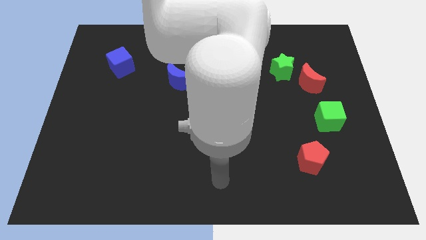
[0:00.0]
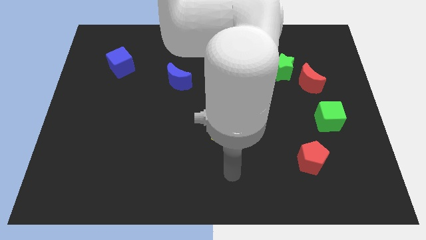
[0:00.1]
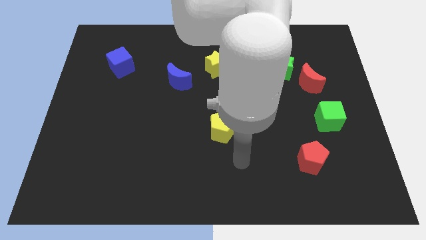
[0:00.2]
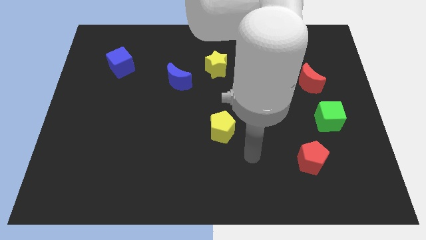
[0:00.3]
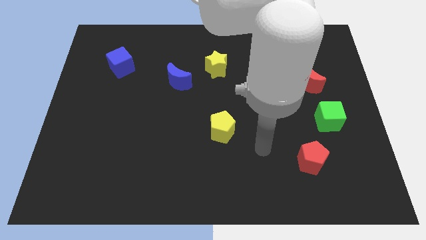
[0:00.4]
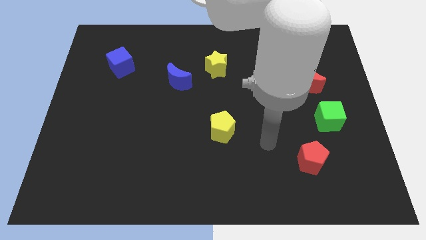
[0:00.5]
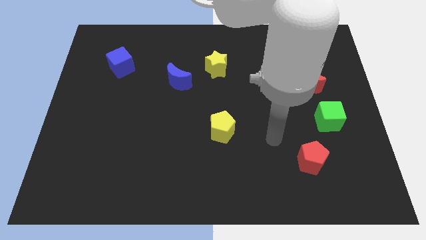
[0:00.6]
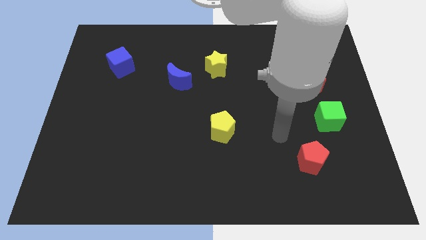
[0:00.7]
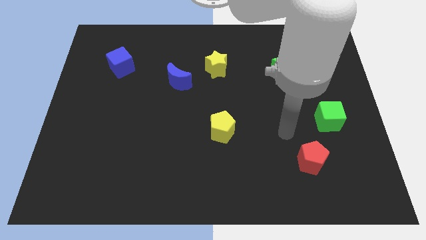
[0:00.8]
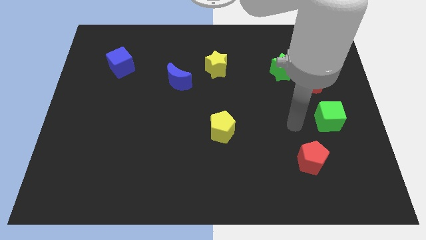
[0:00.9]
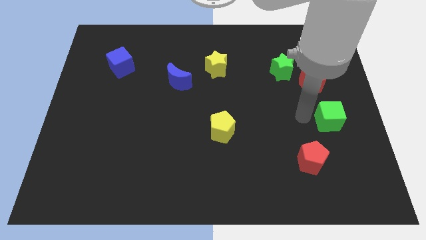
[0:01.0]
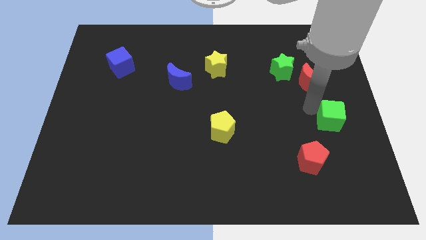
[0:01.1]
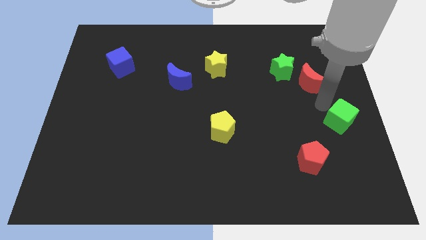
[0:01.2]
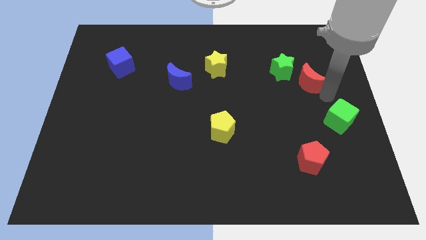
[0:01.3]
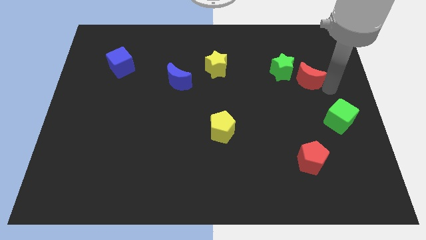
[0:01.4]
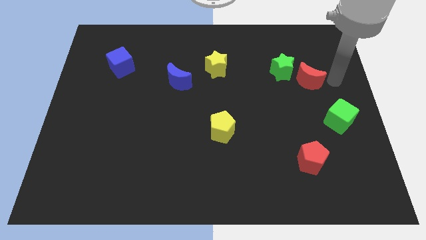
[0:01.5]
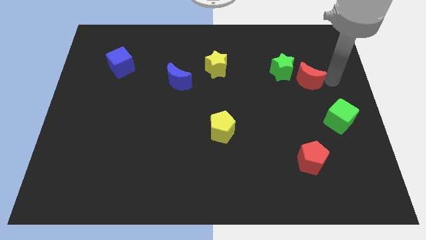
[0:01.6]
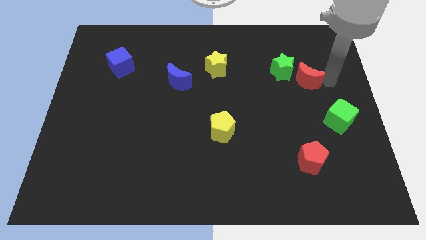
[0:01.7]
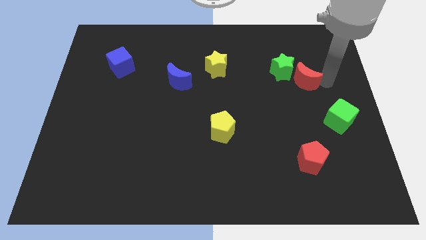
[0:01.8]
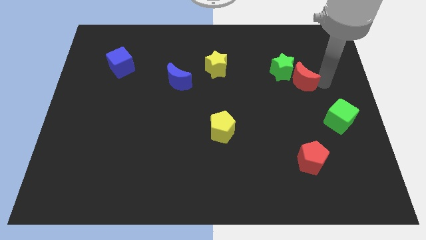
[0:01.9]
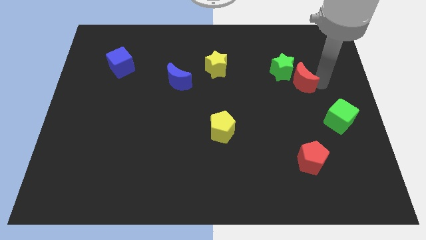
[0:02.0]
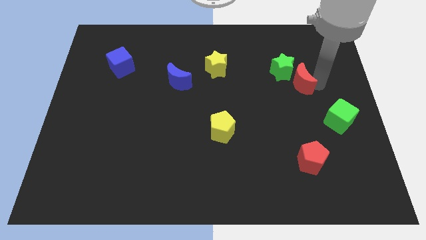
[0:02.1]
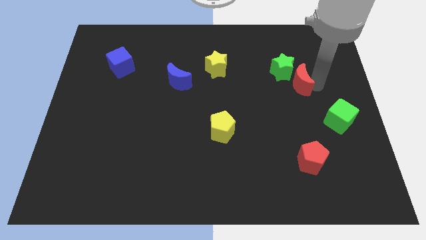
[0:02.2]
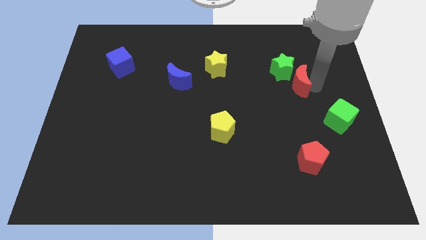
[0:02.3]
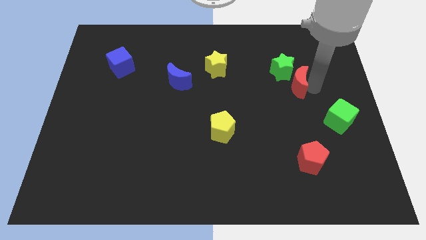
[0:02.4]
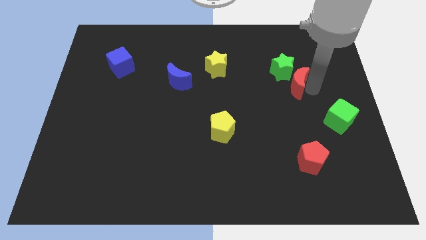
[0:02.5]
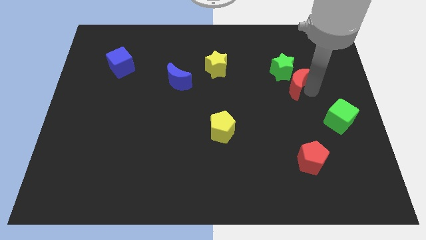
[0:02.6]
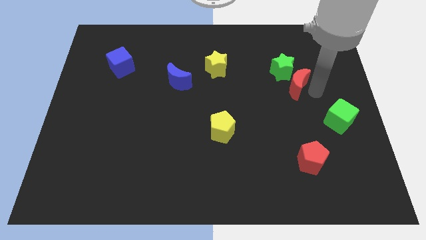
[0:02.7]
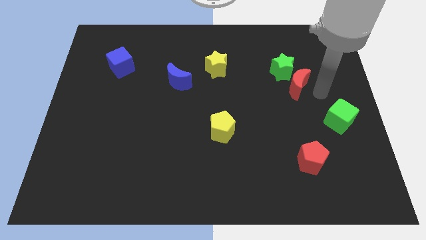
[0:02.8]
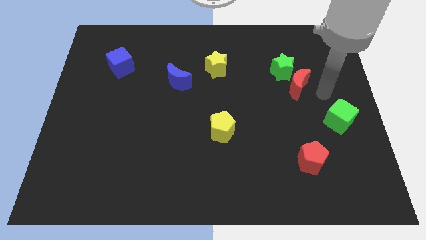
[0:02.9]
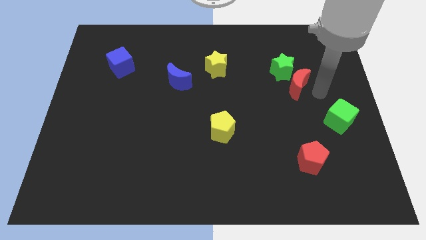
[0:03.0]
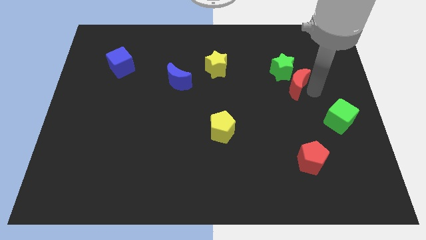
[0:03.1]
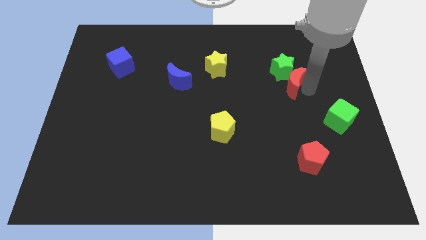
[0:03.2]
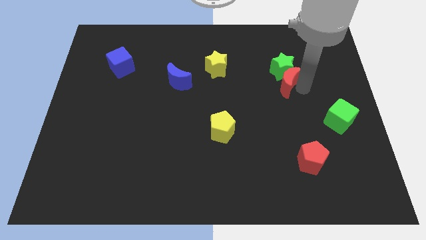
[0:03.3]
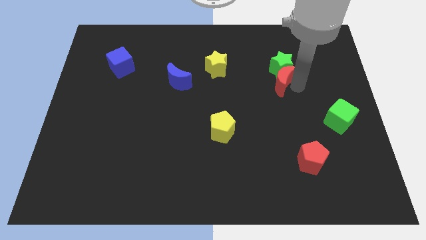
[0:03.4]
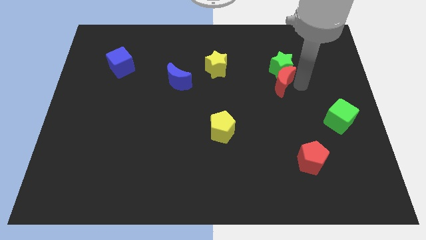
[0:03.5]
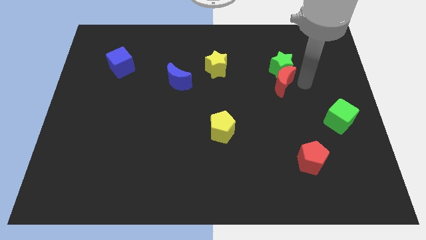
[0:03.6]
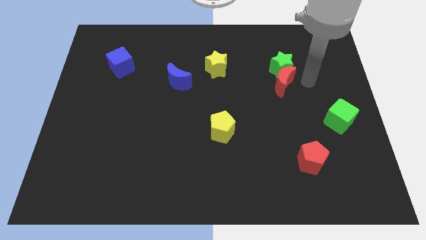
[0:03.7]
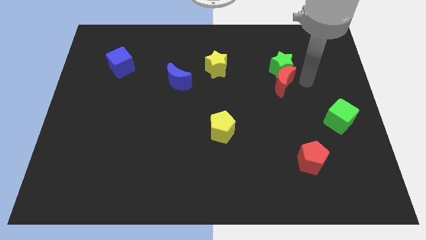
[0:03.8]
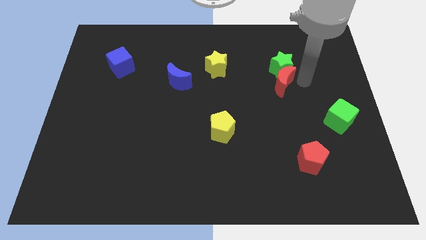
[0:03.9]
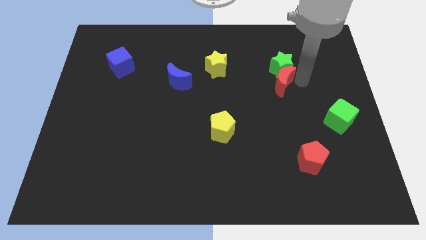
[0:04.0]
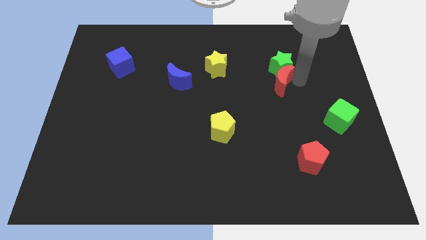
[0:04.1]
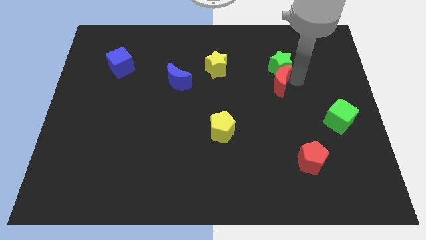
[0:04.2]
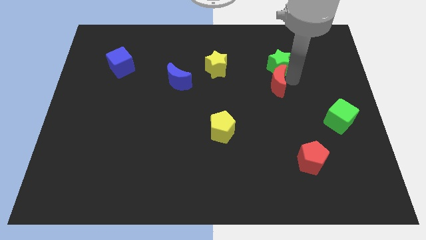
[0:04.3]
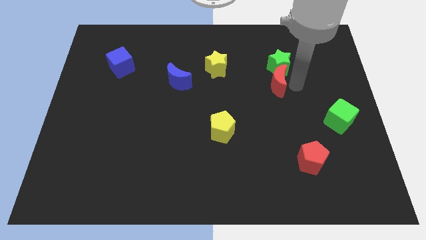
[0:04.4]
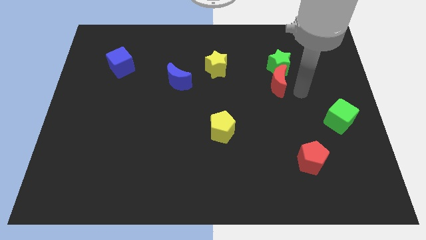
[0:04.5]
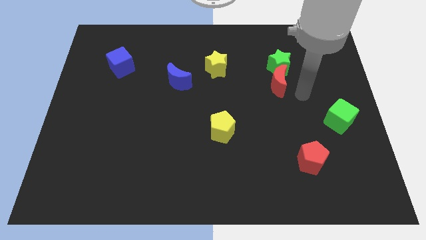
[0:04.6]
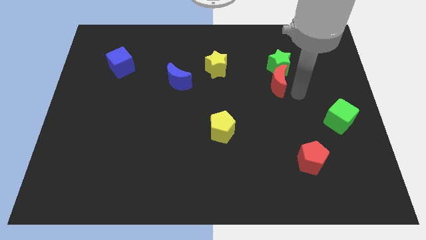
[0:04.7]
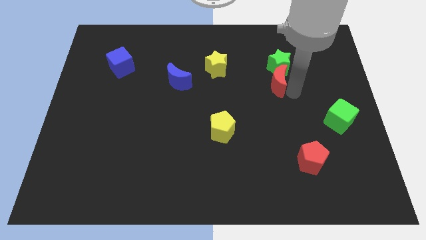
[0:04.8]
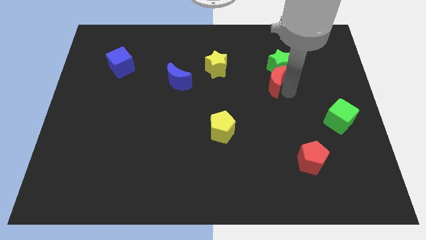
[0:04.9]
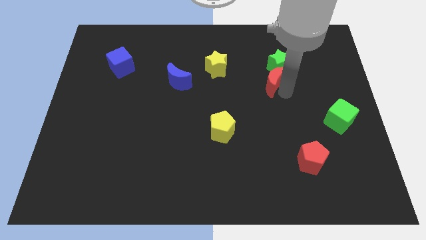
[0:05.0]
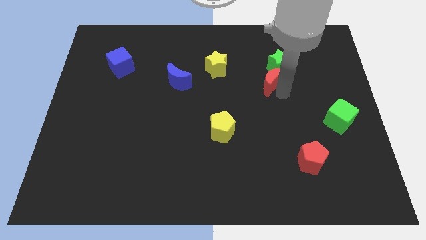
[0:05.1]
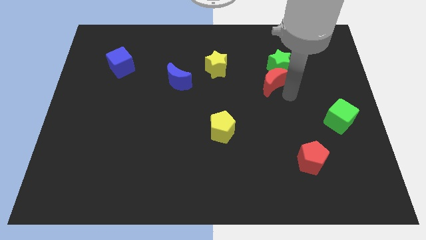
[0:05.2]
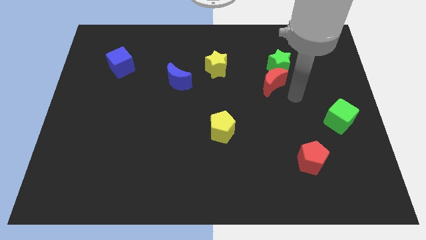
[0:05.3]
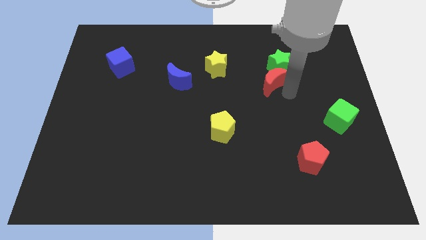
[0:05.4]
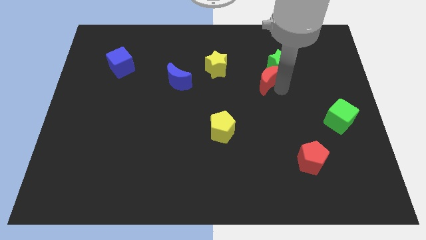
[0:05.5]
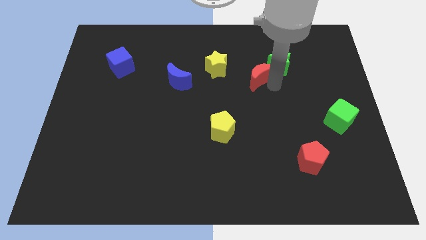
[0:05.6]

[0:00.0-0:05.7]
slide the red moon to the left of the green star
